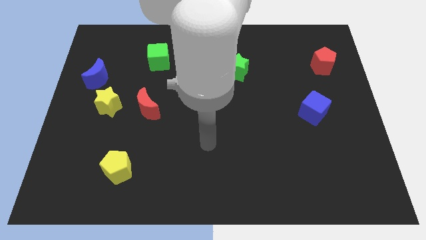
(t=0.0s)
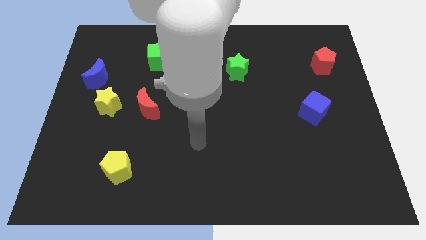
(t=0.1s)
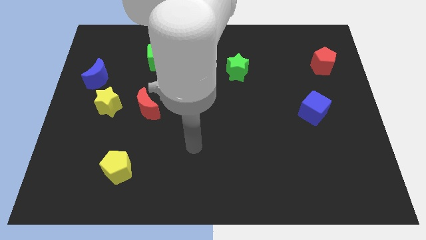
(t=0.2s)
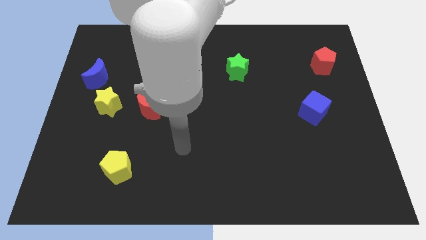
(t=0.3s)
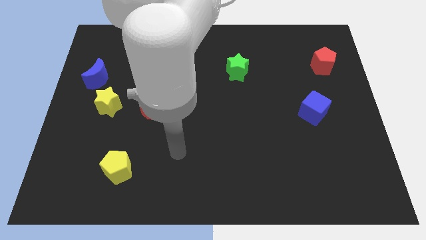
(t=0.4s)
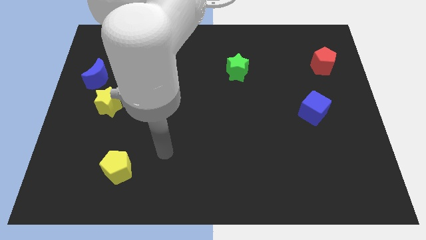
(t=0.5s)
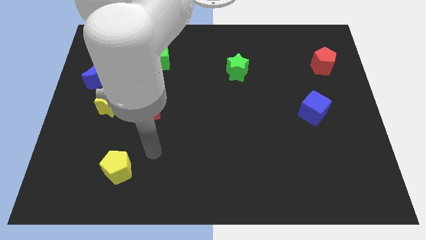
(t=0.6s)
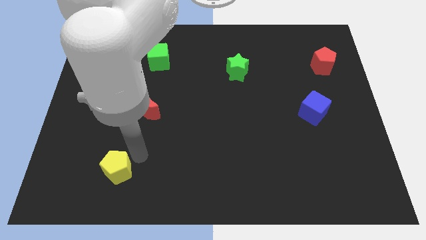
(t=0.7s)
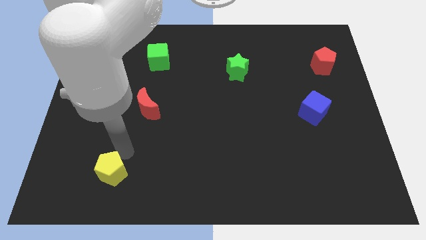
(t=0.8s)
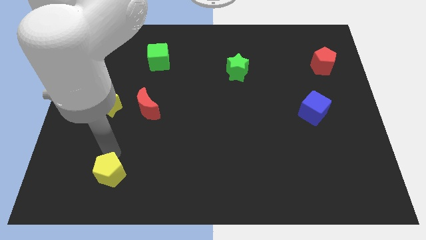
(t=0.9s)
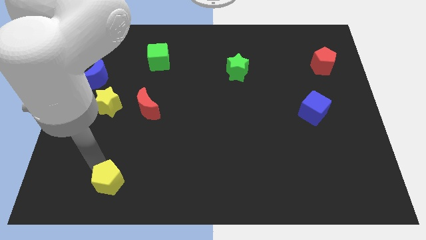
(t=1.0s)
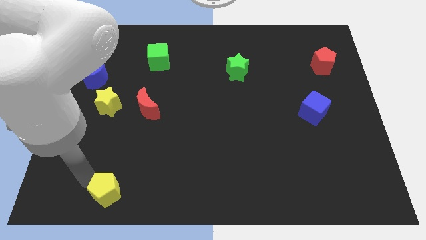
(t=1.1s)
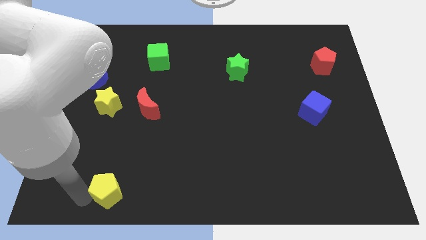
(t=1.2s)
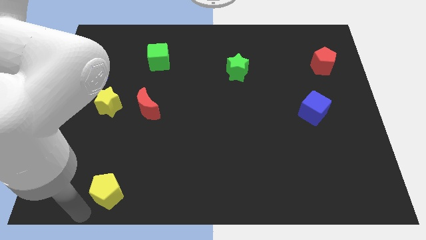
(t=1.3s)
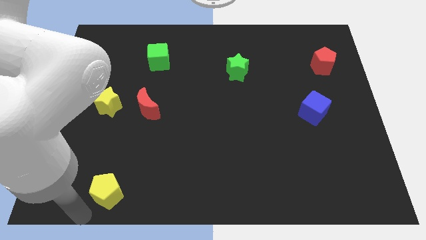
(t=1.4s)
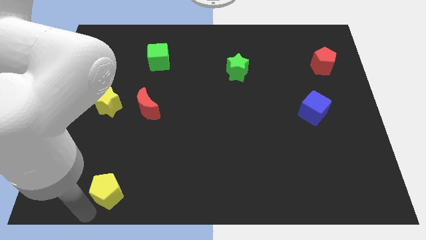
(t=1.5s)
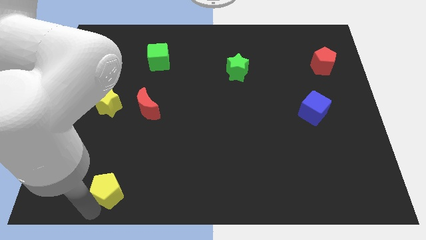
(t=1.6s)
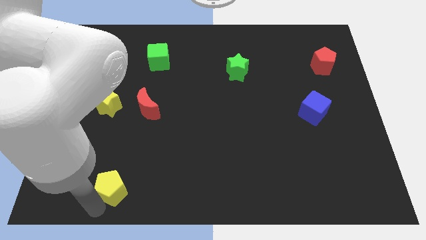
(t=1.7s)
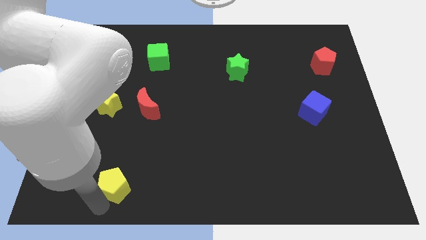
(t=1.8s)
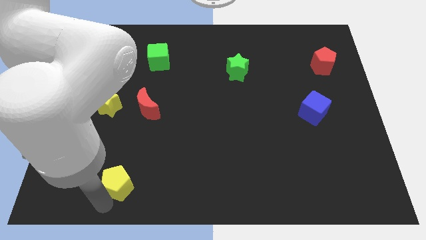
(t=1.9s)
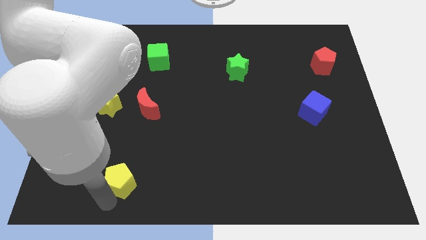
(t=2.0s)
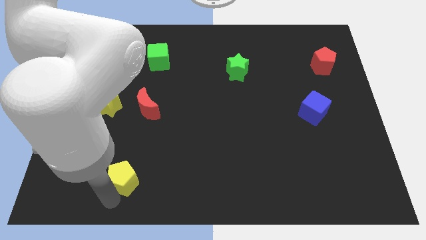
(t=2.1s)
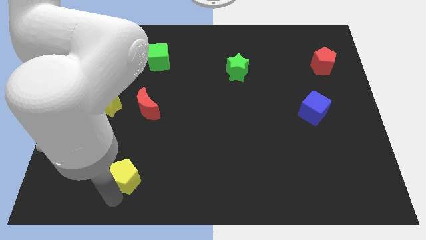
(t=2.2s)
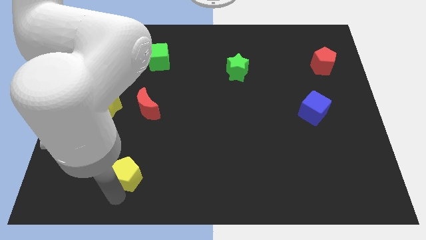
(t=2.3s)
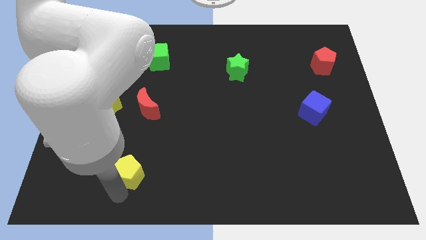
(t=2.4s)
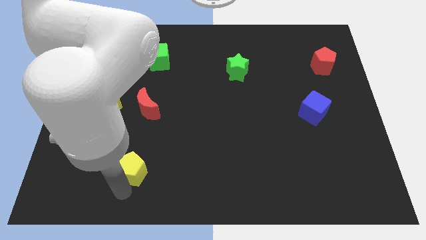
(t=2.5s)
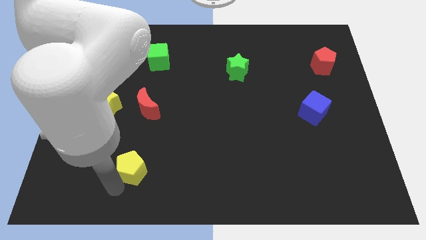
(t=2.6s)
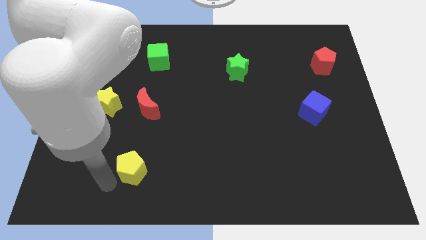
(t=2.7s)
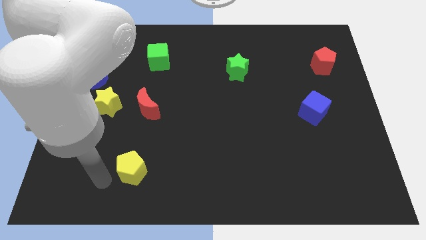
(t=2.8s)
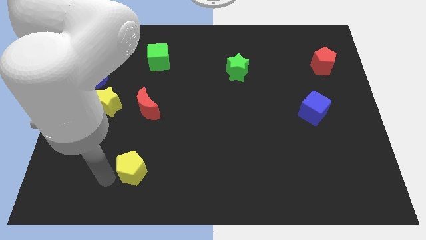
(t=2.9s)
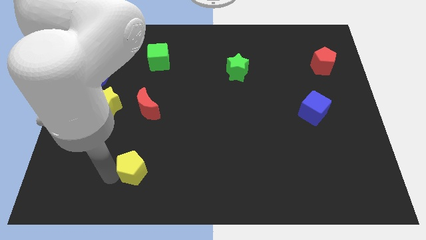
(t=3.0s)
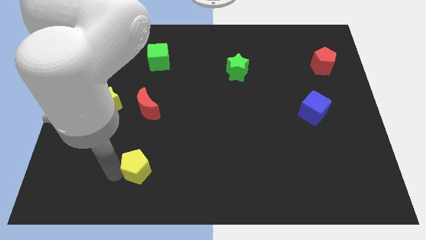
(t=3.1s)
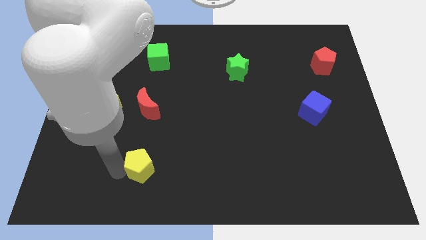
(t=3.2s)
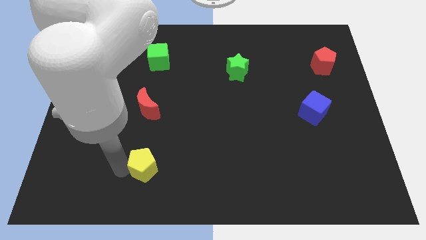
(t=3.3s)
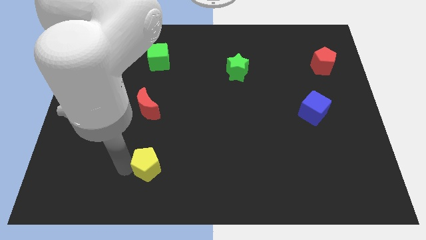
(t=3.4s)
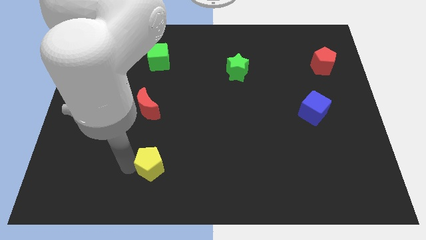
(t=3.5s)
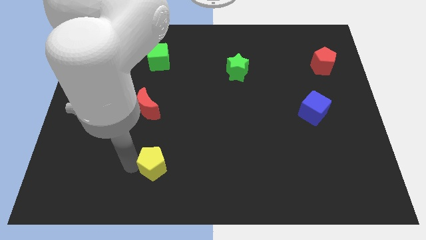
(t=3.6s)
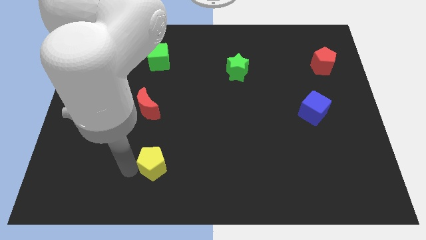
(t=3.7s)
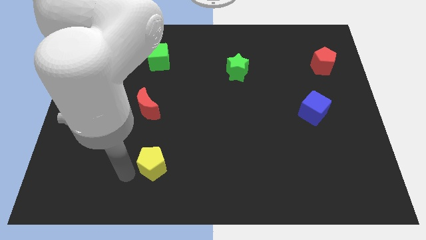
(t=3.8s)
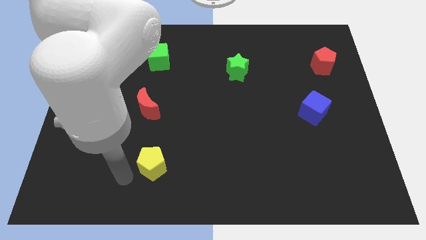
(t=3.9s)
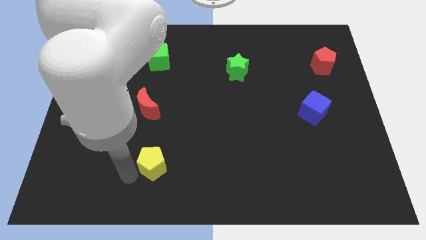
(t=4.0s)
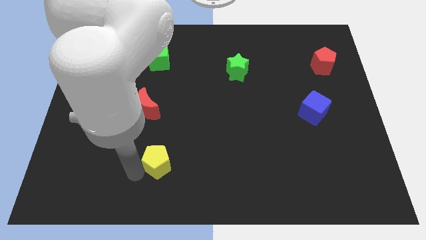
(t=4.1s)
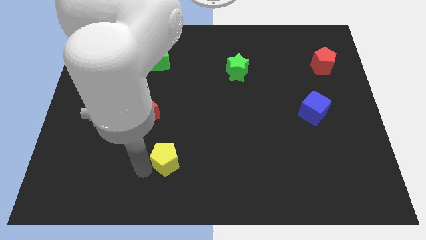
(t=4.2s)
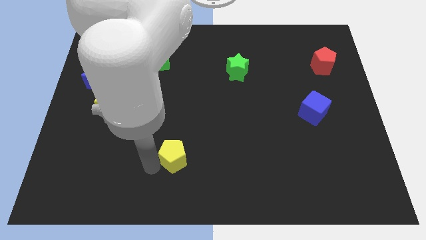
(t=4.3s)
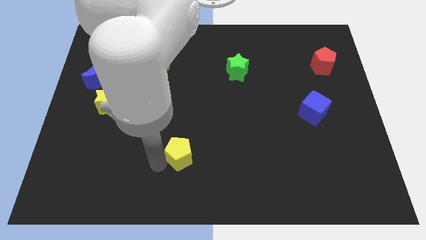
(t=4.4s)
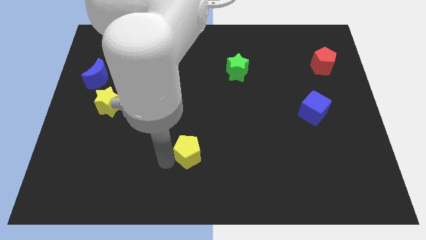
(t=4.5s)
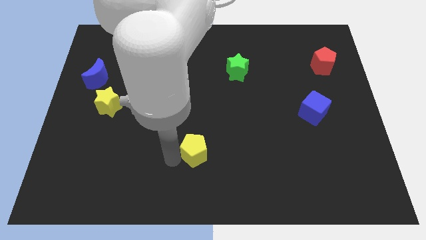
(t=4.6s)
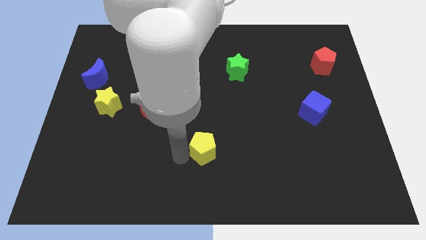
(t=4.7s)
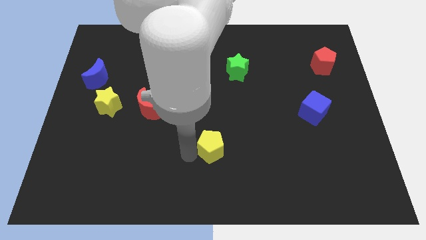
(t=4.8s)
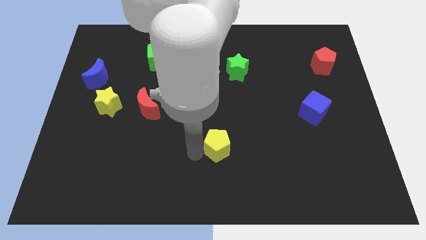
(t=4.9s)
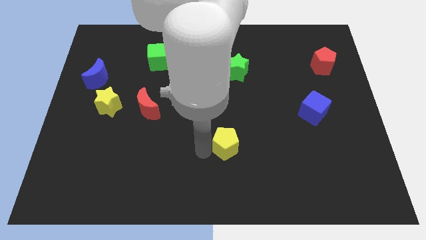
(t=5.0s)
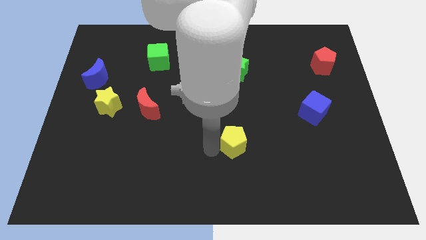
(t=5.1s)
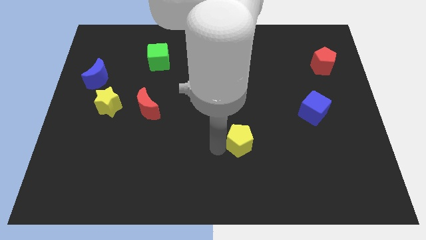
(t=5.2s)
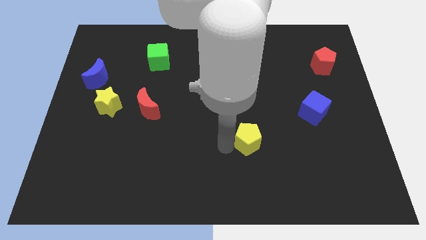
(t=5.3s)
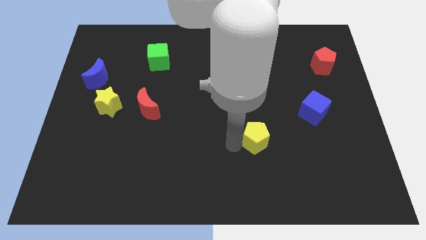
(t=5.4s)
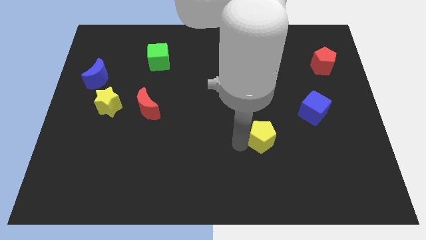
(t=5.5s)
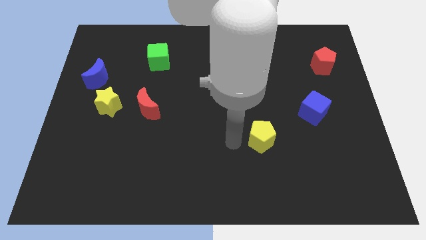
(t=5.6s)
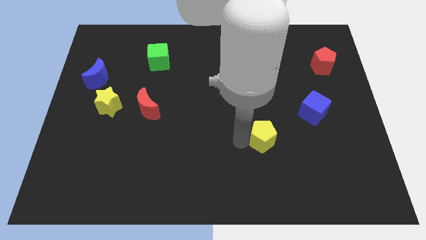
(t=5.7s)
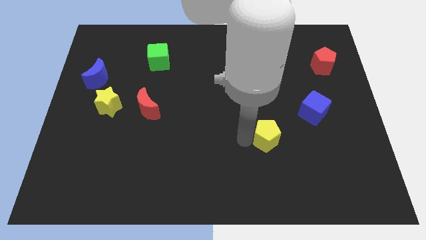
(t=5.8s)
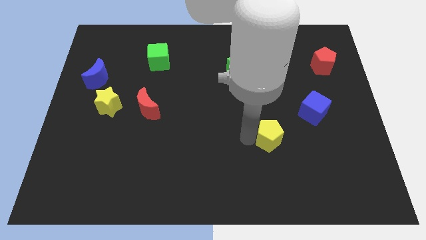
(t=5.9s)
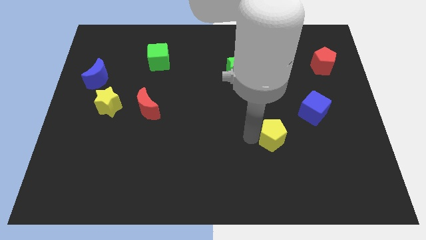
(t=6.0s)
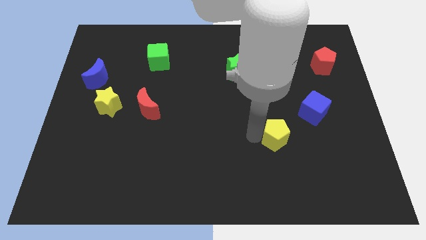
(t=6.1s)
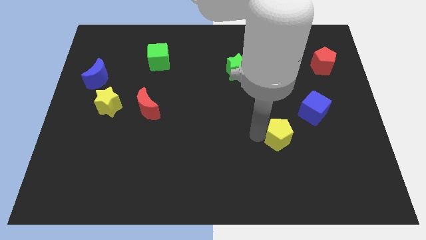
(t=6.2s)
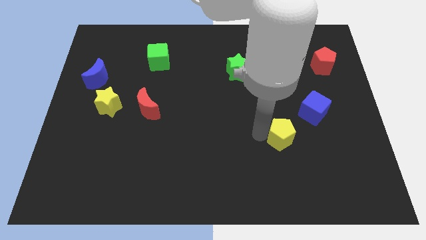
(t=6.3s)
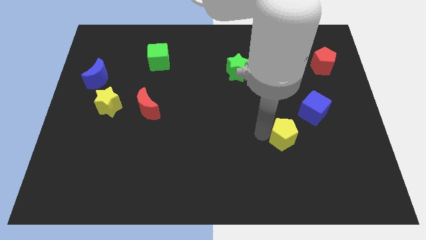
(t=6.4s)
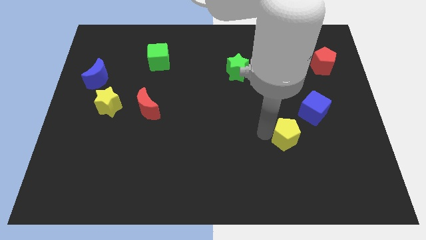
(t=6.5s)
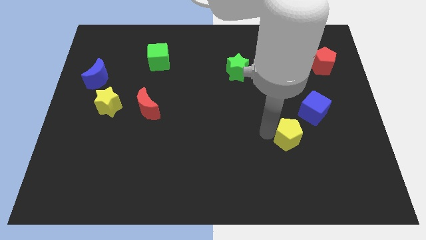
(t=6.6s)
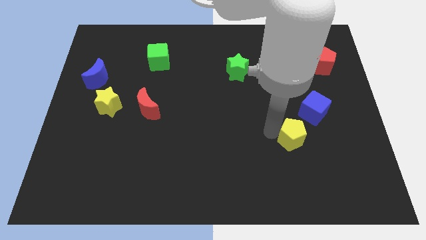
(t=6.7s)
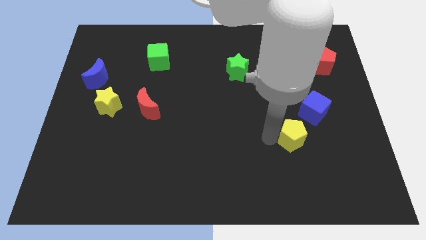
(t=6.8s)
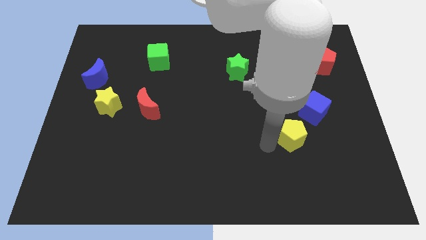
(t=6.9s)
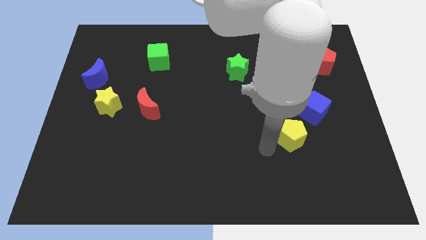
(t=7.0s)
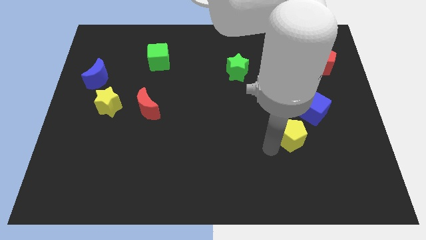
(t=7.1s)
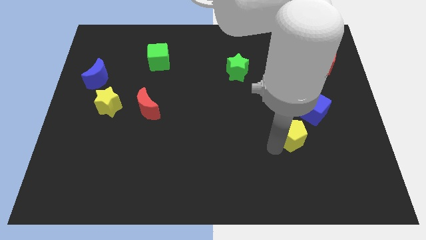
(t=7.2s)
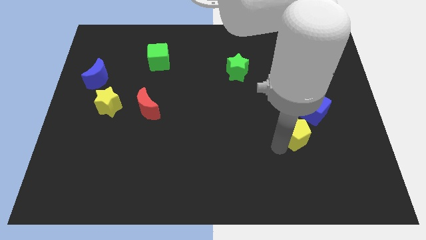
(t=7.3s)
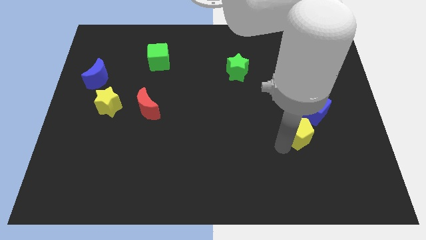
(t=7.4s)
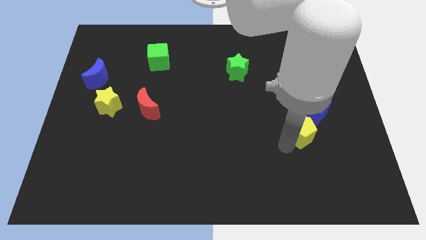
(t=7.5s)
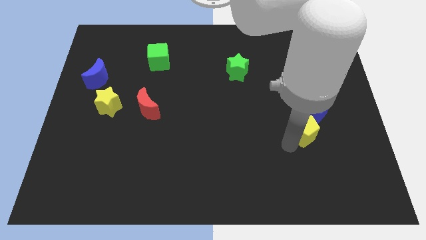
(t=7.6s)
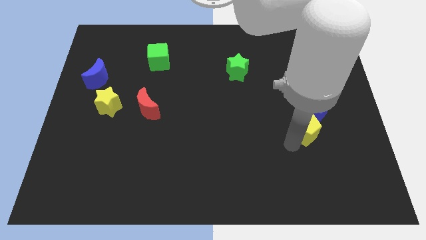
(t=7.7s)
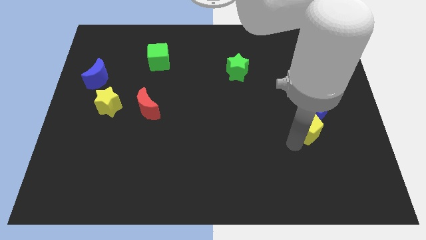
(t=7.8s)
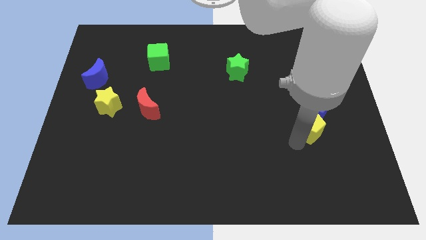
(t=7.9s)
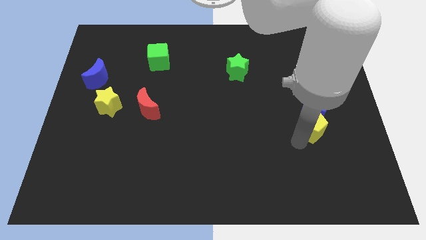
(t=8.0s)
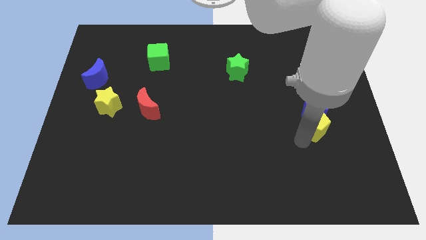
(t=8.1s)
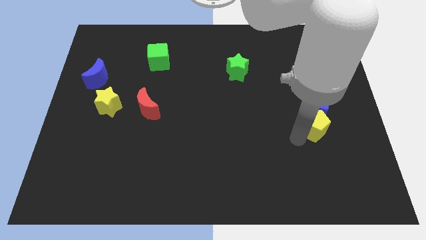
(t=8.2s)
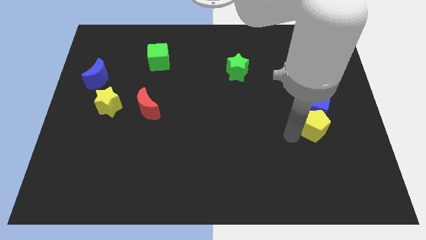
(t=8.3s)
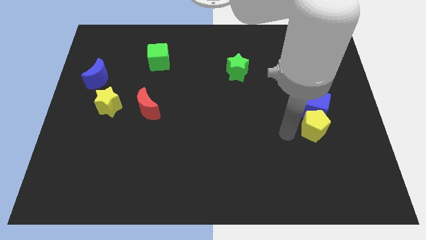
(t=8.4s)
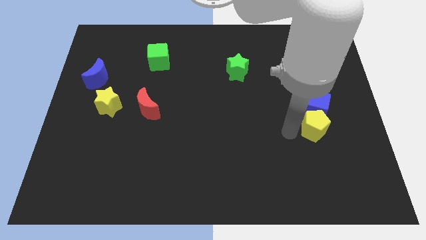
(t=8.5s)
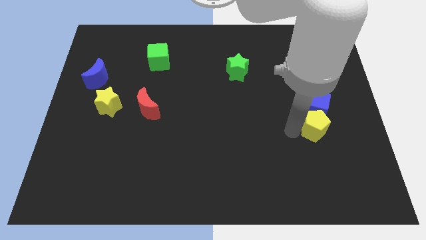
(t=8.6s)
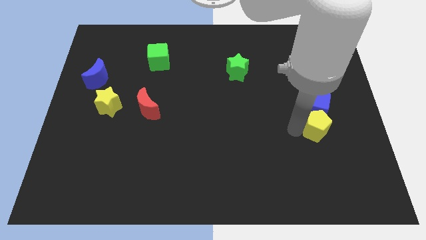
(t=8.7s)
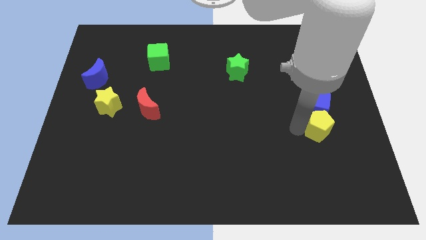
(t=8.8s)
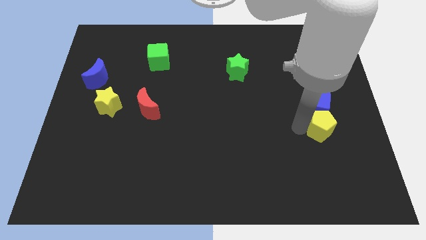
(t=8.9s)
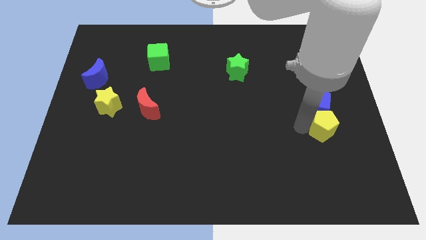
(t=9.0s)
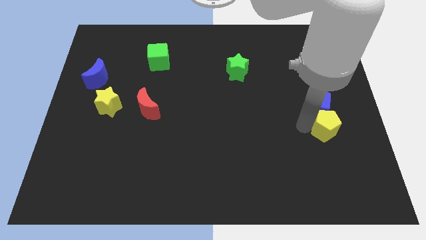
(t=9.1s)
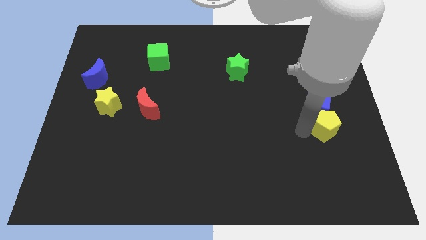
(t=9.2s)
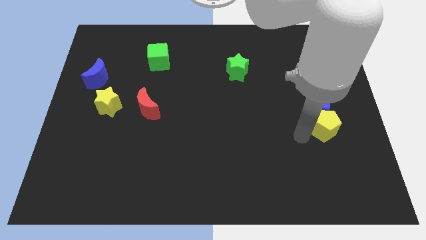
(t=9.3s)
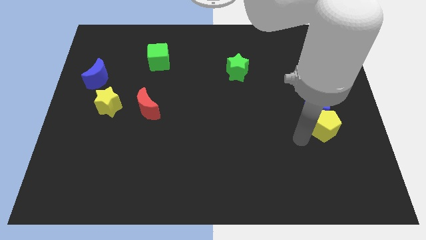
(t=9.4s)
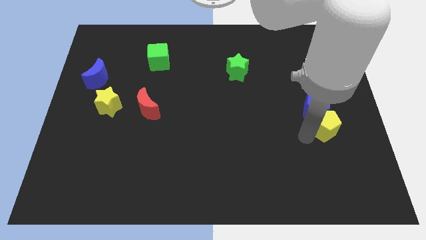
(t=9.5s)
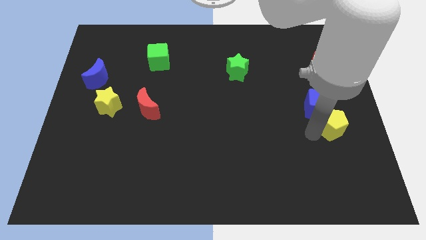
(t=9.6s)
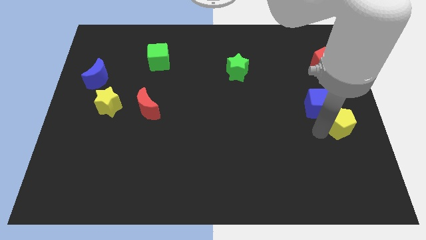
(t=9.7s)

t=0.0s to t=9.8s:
move the yellow pentagon to the right side
